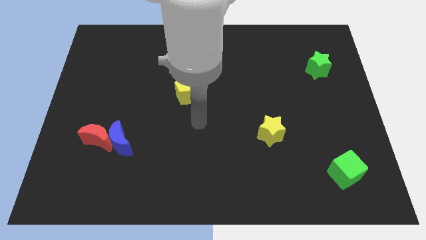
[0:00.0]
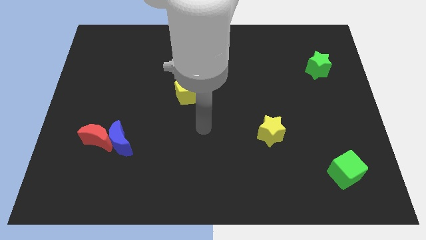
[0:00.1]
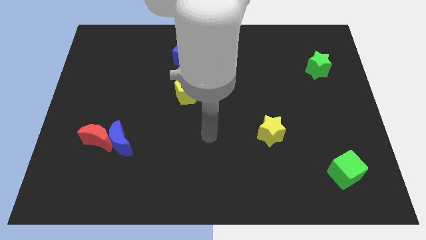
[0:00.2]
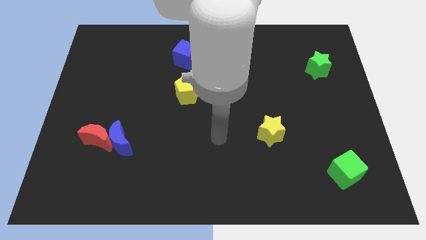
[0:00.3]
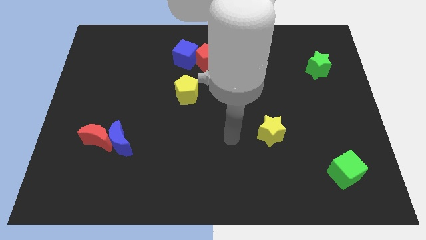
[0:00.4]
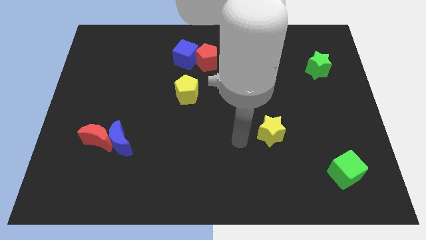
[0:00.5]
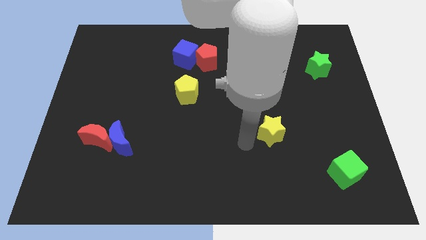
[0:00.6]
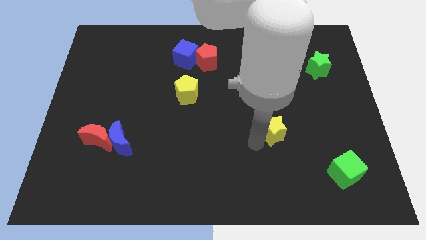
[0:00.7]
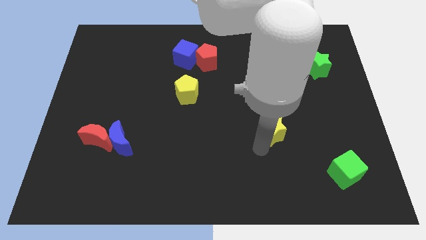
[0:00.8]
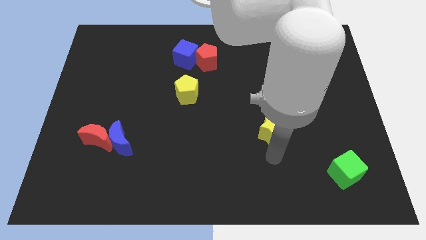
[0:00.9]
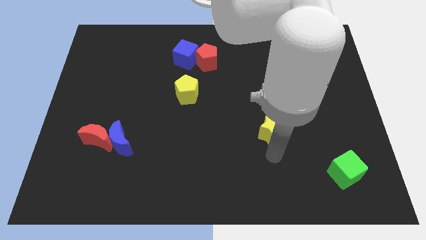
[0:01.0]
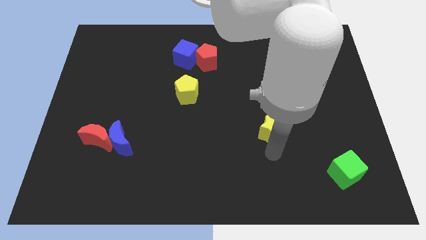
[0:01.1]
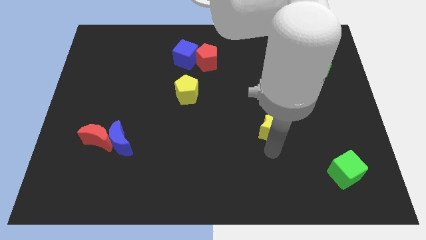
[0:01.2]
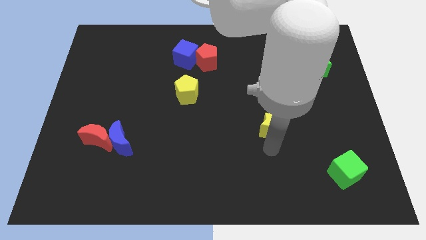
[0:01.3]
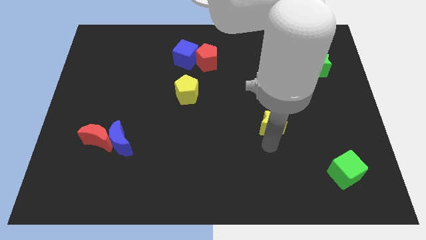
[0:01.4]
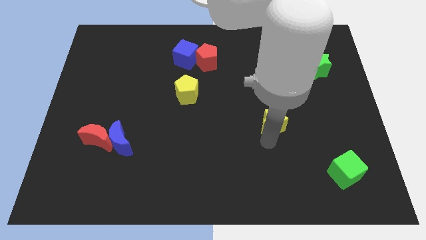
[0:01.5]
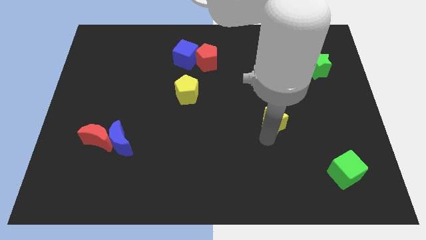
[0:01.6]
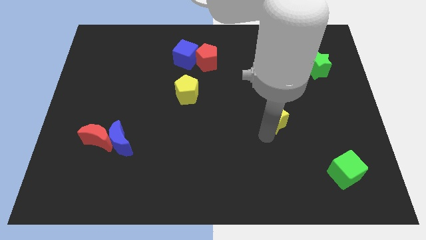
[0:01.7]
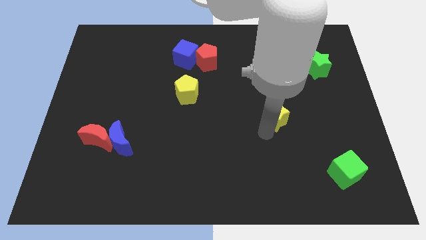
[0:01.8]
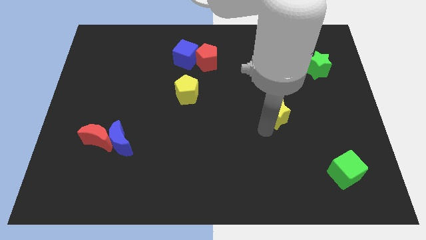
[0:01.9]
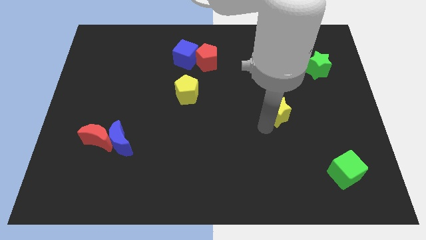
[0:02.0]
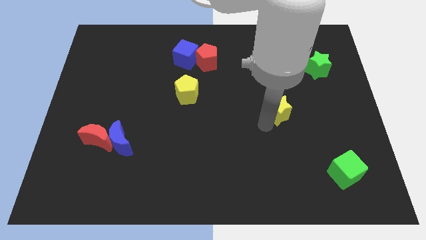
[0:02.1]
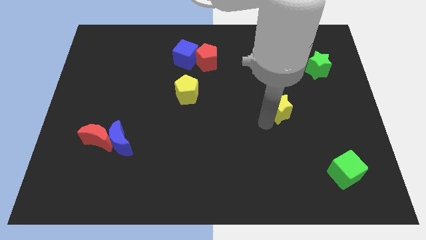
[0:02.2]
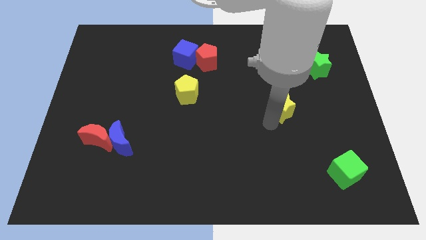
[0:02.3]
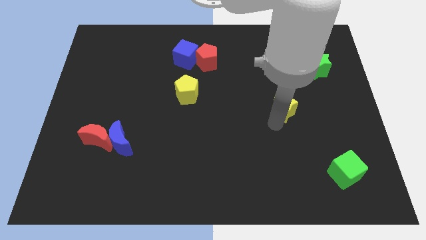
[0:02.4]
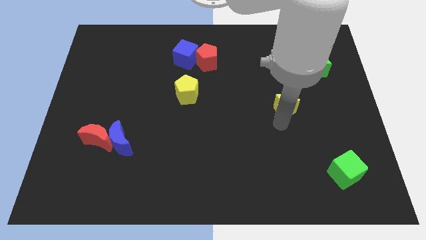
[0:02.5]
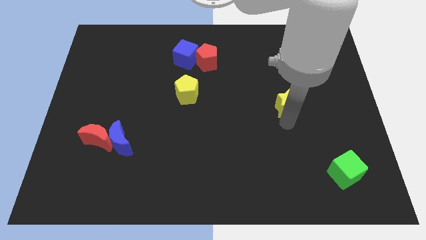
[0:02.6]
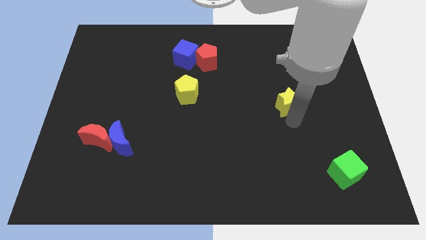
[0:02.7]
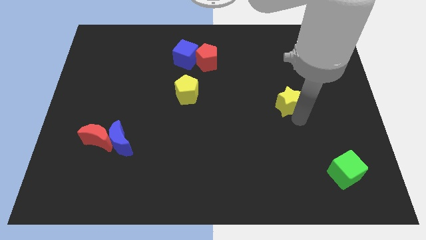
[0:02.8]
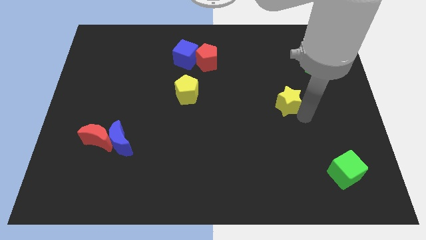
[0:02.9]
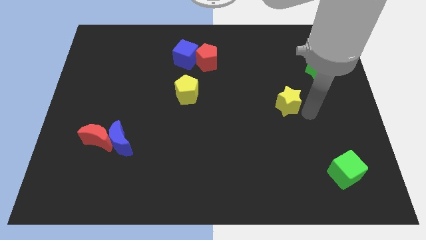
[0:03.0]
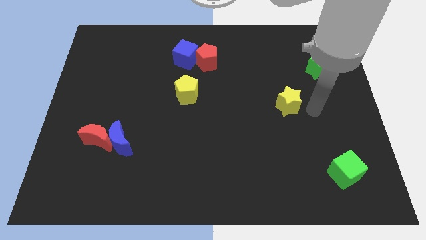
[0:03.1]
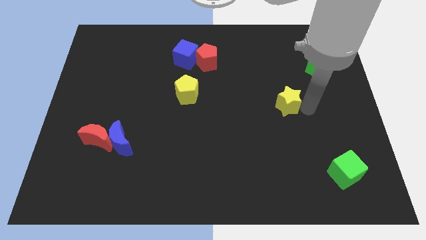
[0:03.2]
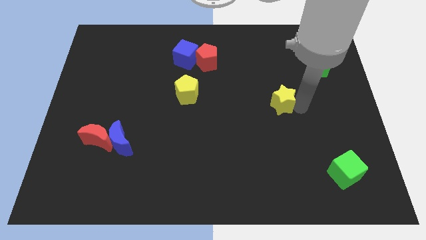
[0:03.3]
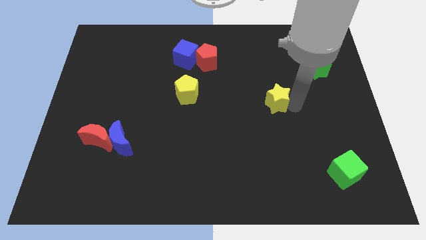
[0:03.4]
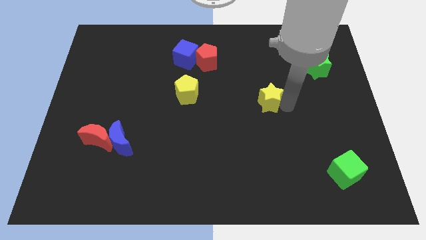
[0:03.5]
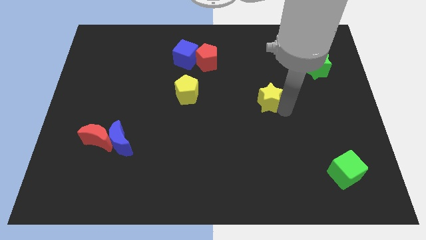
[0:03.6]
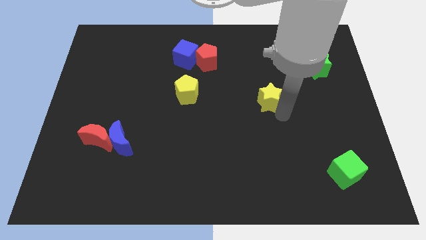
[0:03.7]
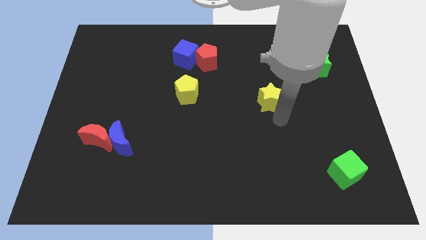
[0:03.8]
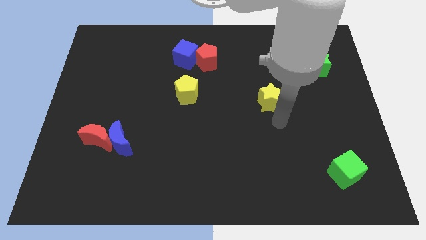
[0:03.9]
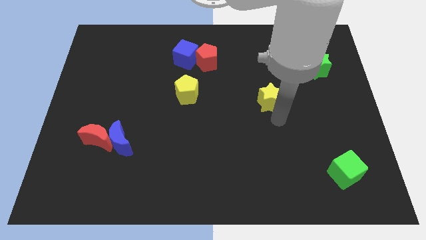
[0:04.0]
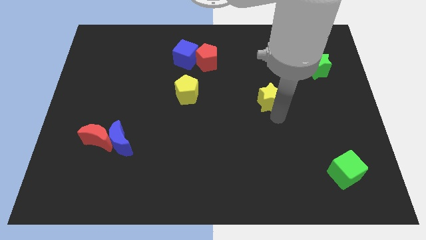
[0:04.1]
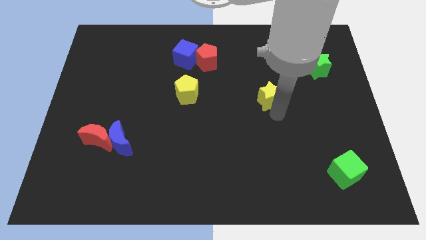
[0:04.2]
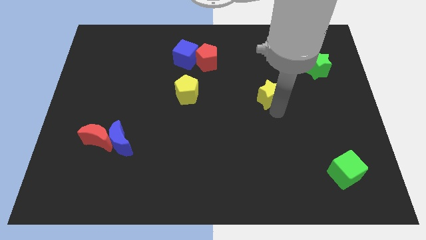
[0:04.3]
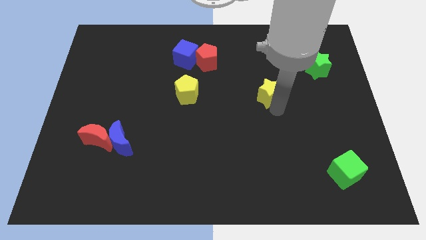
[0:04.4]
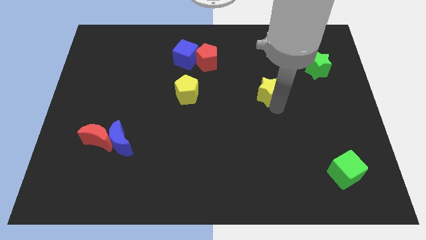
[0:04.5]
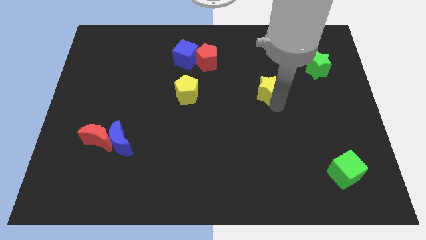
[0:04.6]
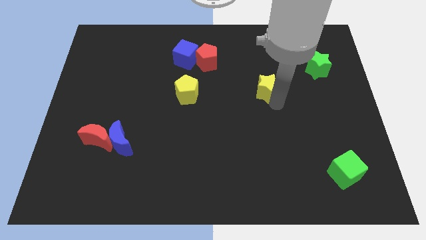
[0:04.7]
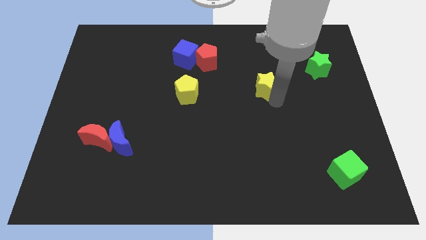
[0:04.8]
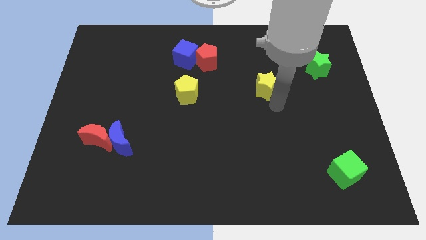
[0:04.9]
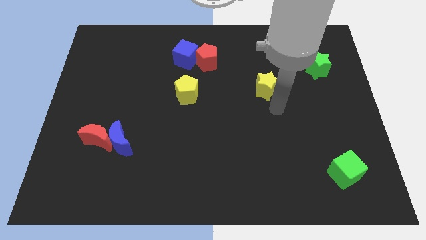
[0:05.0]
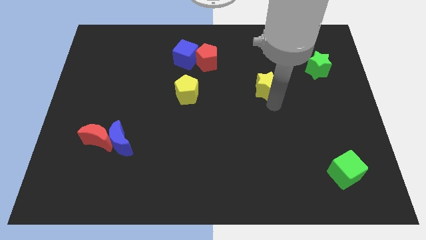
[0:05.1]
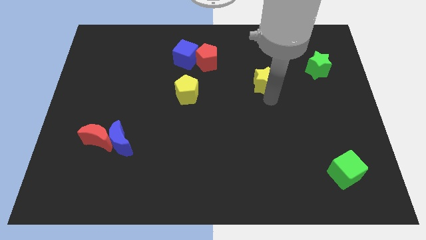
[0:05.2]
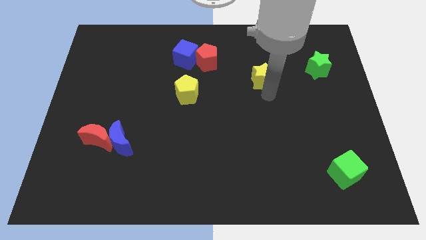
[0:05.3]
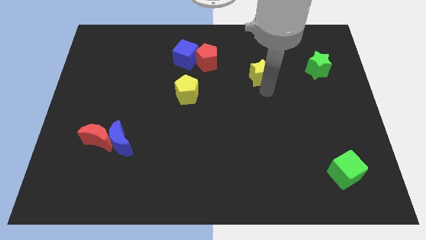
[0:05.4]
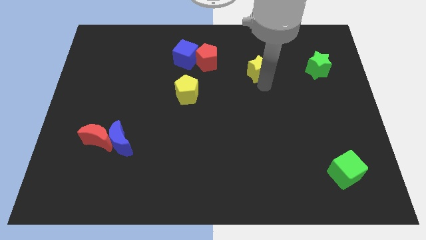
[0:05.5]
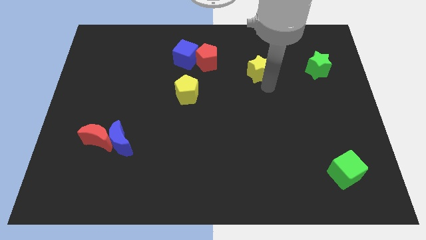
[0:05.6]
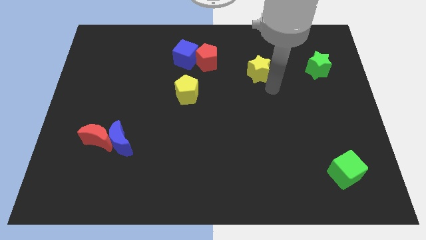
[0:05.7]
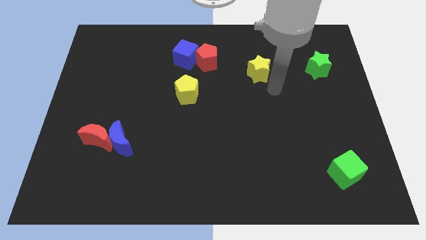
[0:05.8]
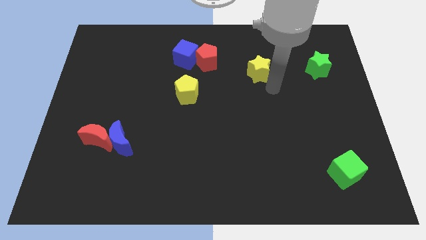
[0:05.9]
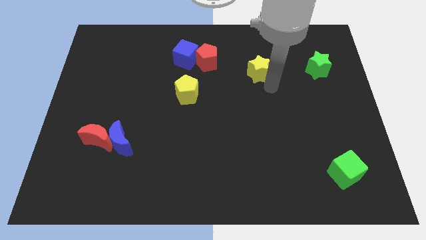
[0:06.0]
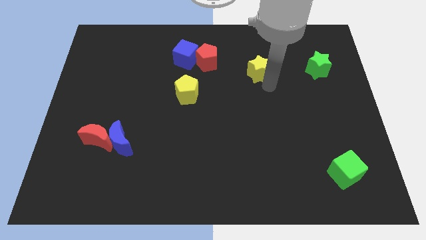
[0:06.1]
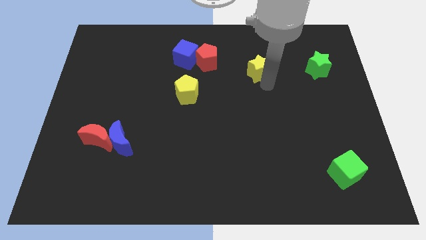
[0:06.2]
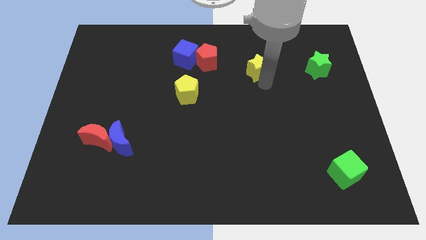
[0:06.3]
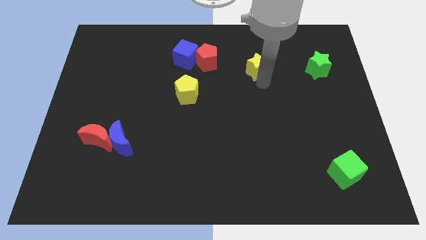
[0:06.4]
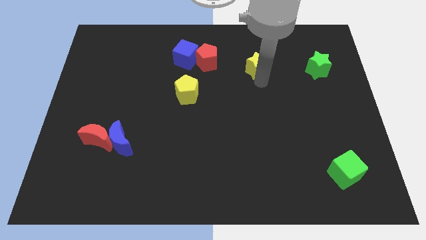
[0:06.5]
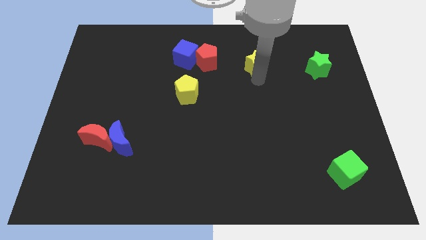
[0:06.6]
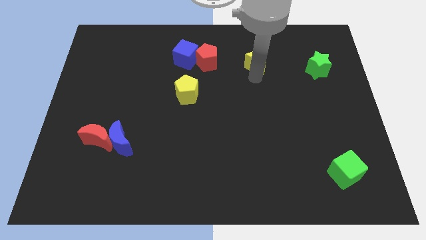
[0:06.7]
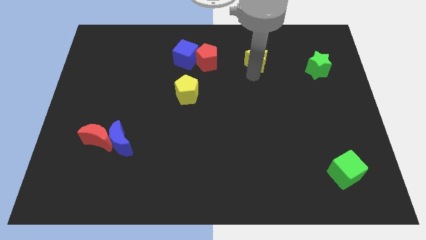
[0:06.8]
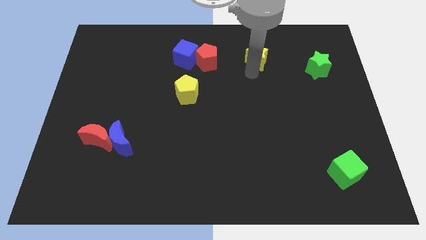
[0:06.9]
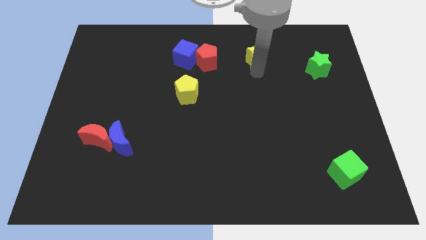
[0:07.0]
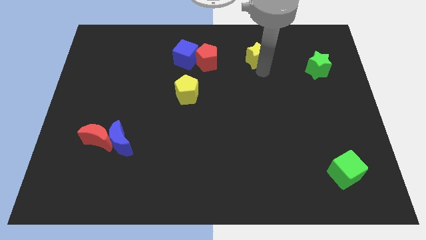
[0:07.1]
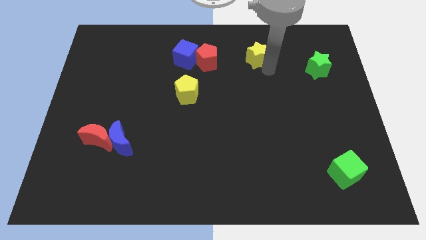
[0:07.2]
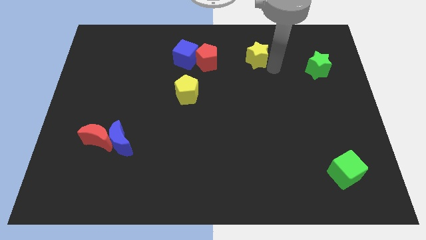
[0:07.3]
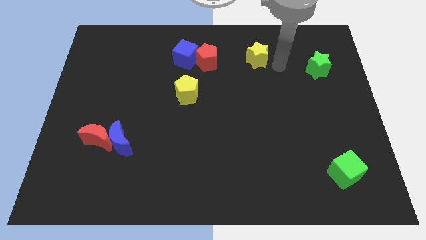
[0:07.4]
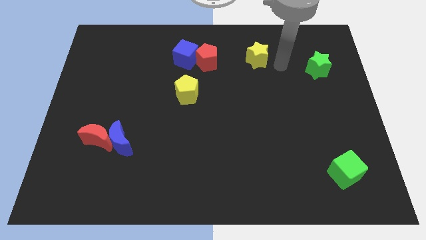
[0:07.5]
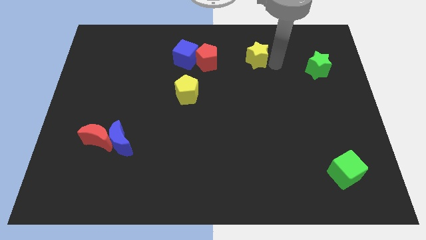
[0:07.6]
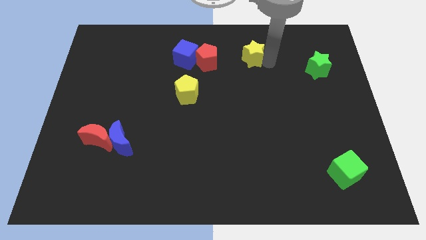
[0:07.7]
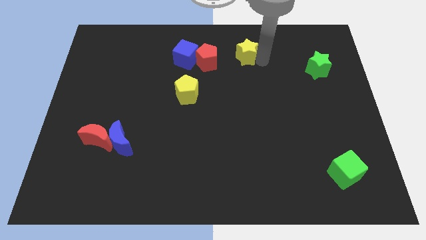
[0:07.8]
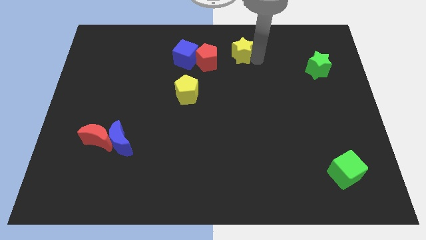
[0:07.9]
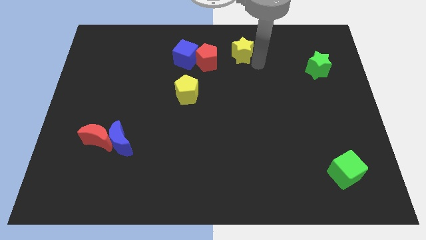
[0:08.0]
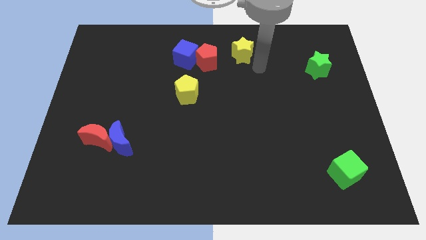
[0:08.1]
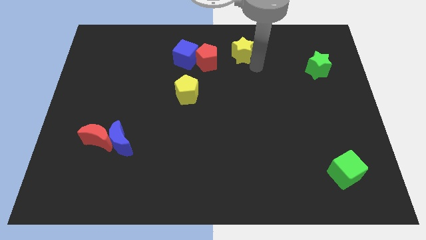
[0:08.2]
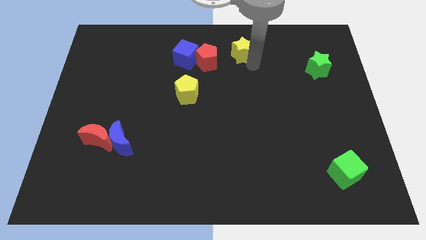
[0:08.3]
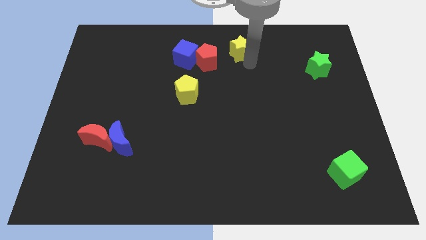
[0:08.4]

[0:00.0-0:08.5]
push the yellow star to the top side
